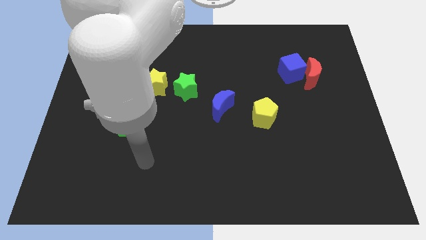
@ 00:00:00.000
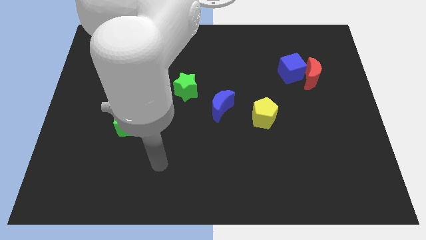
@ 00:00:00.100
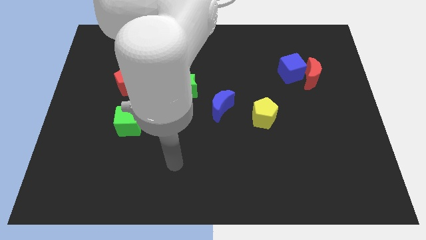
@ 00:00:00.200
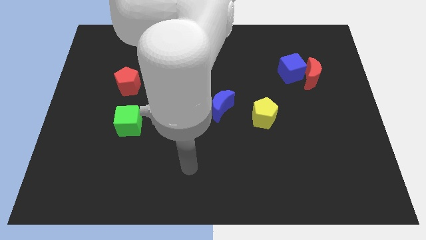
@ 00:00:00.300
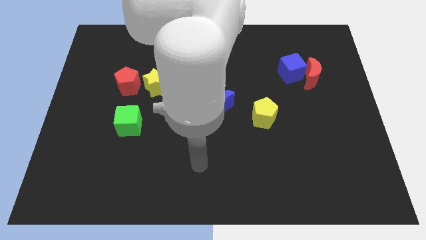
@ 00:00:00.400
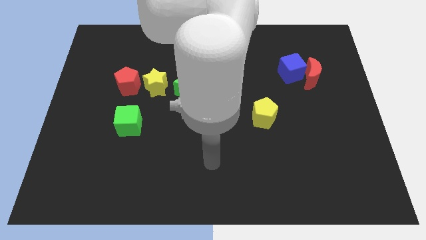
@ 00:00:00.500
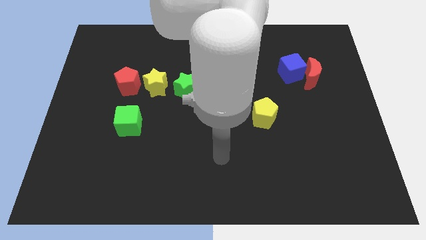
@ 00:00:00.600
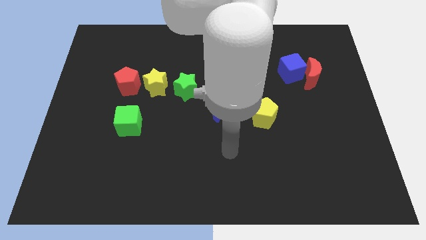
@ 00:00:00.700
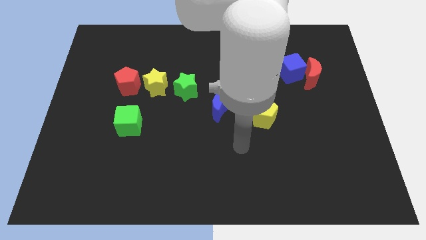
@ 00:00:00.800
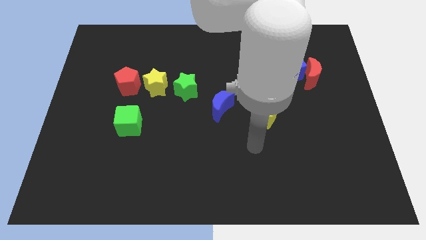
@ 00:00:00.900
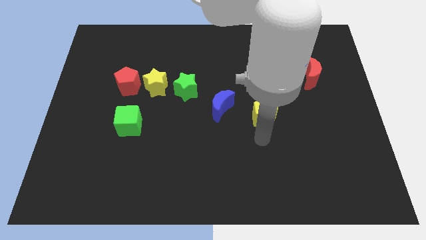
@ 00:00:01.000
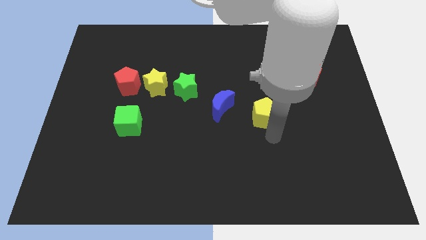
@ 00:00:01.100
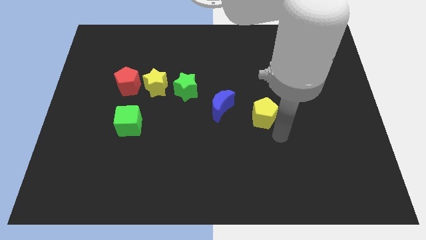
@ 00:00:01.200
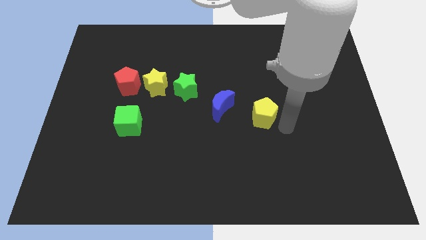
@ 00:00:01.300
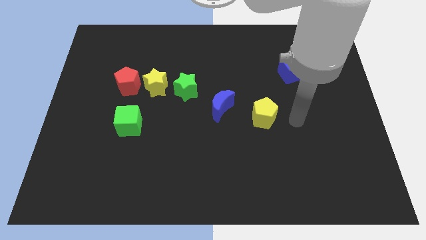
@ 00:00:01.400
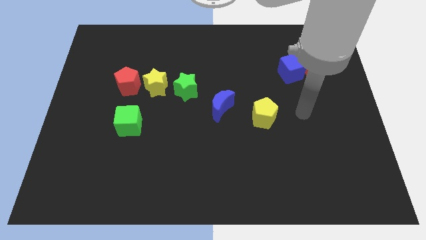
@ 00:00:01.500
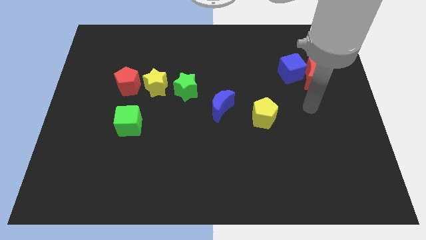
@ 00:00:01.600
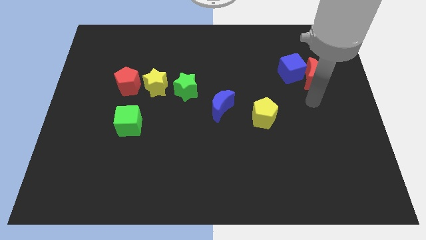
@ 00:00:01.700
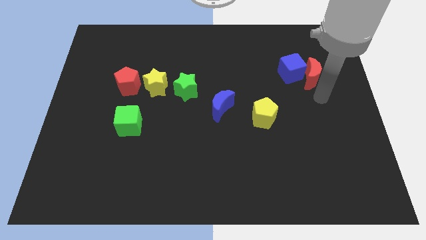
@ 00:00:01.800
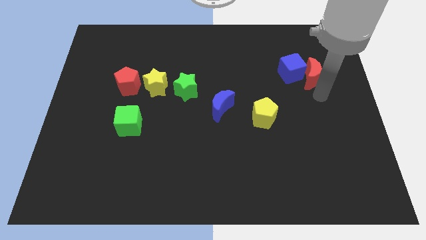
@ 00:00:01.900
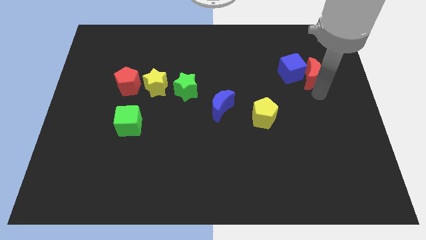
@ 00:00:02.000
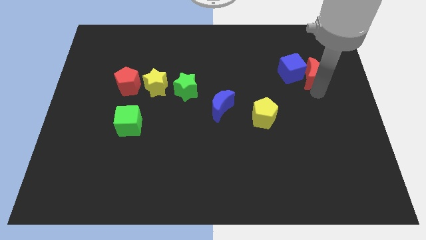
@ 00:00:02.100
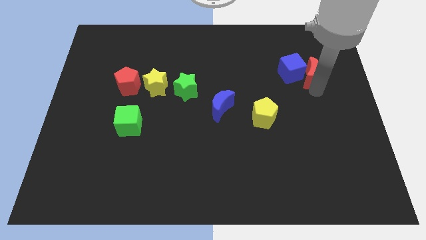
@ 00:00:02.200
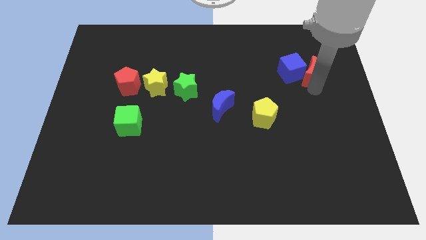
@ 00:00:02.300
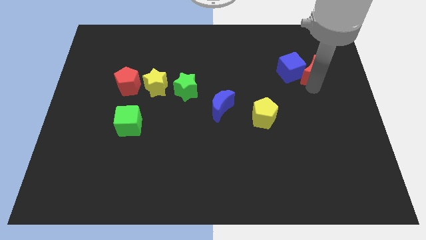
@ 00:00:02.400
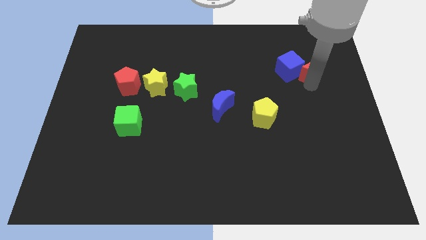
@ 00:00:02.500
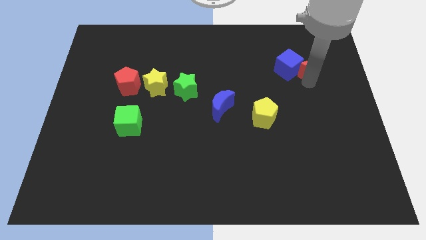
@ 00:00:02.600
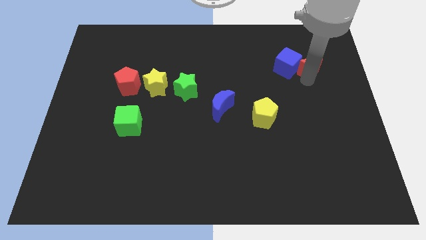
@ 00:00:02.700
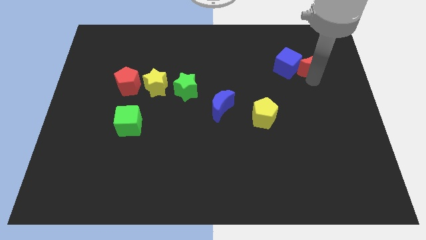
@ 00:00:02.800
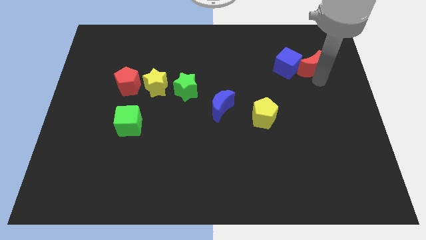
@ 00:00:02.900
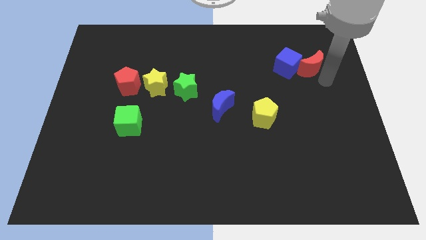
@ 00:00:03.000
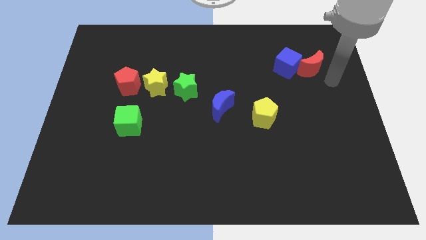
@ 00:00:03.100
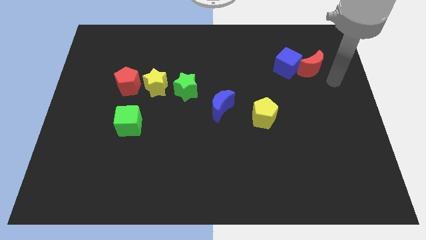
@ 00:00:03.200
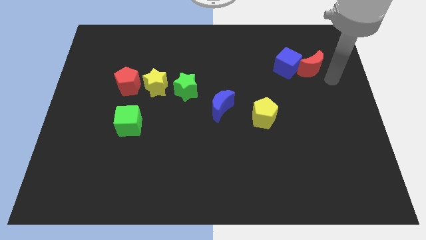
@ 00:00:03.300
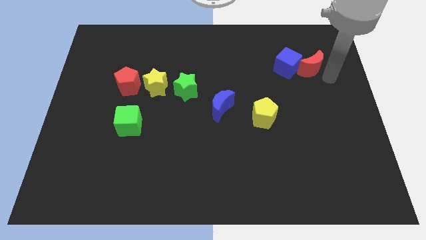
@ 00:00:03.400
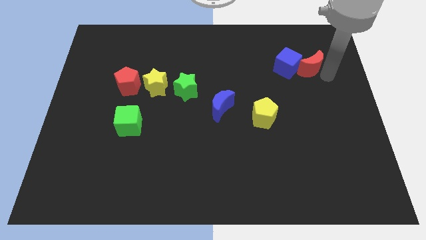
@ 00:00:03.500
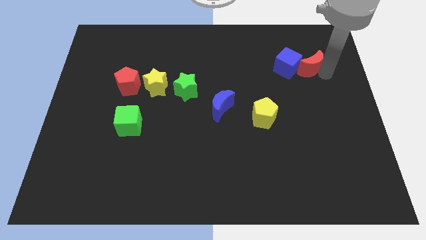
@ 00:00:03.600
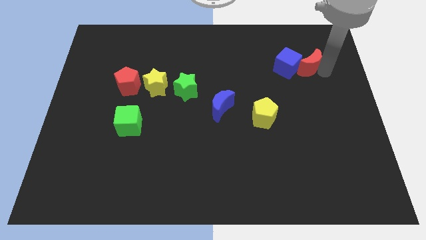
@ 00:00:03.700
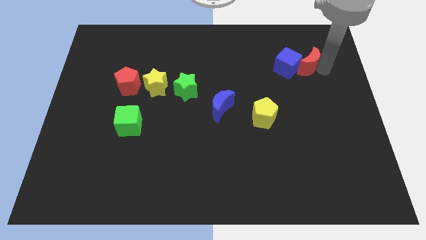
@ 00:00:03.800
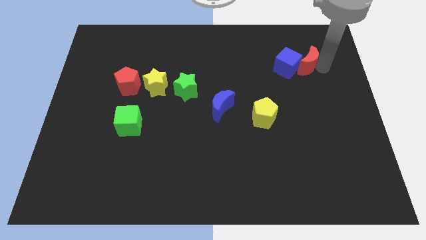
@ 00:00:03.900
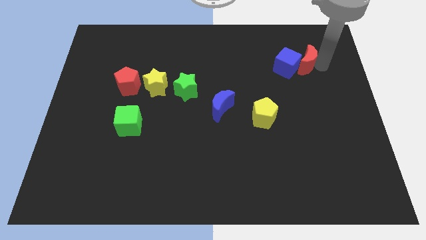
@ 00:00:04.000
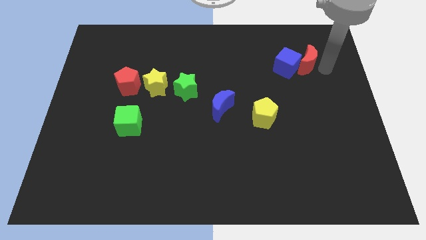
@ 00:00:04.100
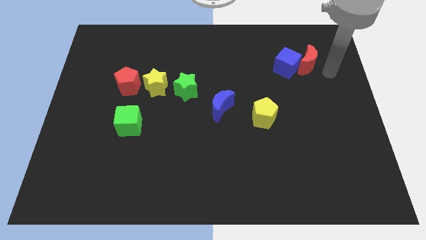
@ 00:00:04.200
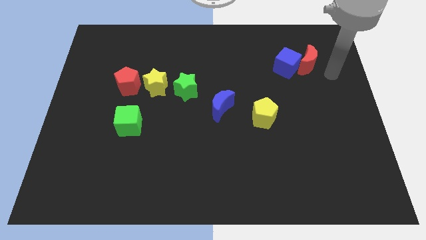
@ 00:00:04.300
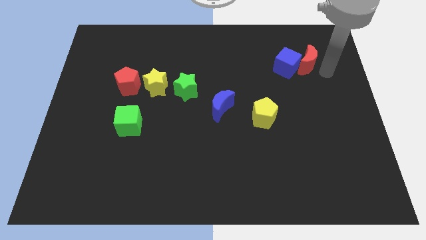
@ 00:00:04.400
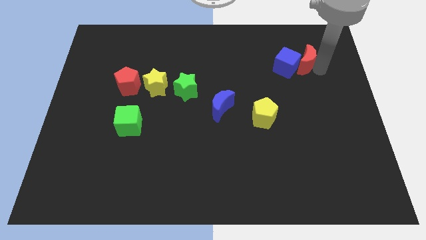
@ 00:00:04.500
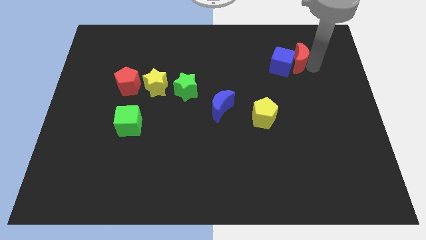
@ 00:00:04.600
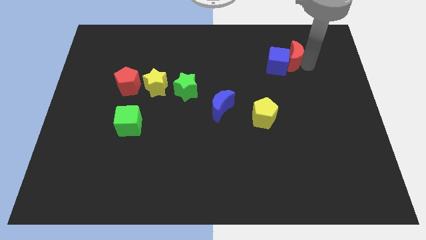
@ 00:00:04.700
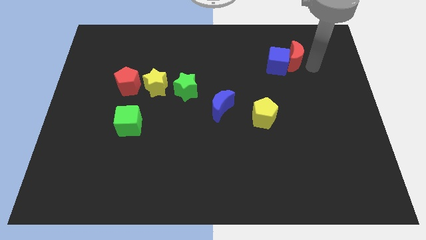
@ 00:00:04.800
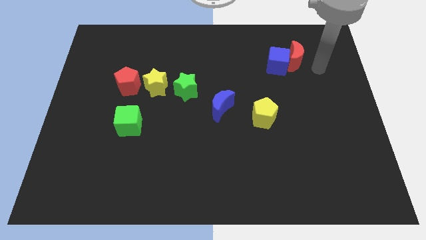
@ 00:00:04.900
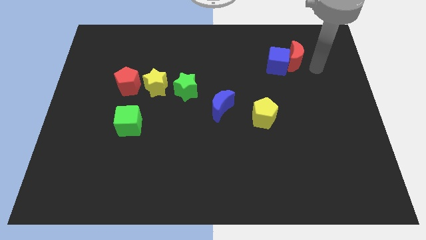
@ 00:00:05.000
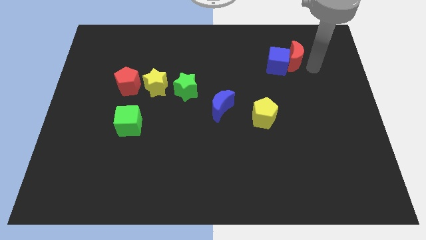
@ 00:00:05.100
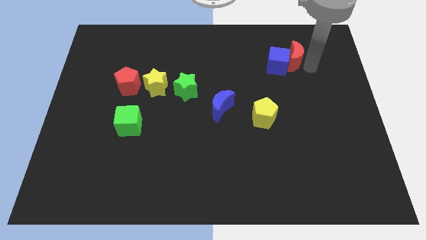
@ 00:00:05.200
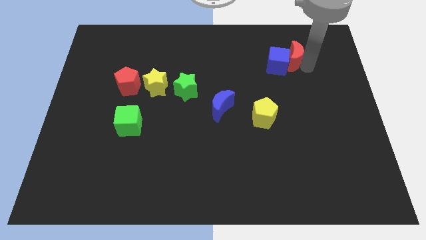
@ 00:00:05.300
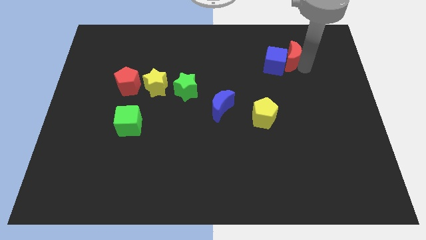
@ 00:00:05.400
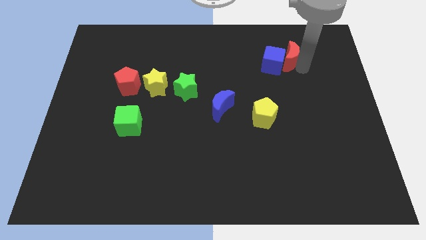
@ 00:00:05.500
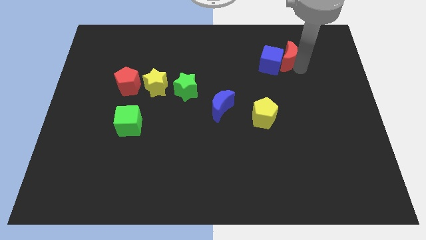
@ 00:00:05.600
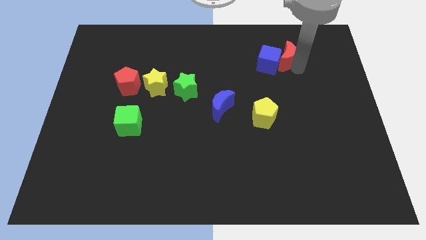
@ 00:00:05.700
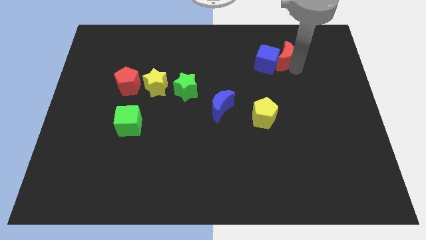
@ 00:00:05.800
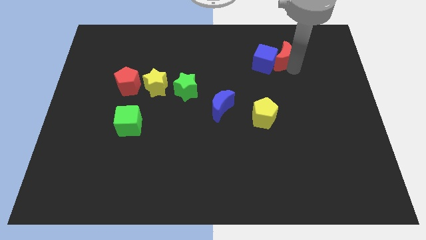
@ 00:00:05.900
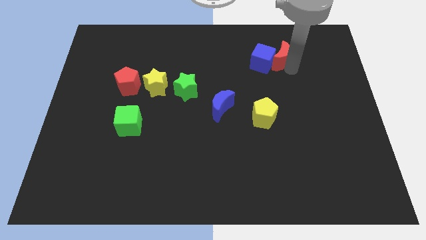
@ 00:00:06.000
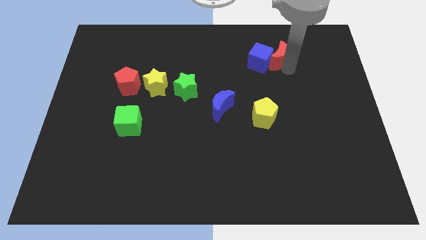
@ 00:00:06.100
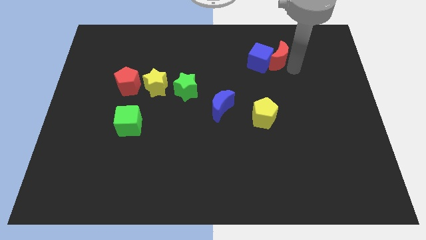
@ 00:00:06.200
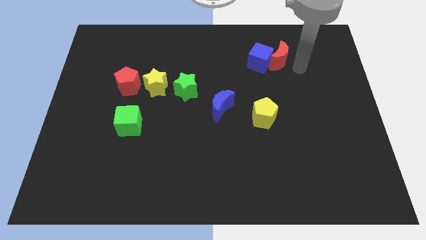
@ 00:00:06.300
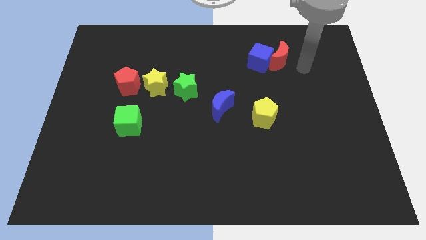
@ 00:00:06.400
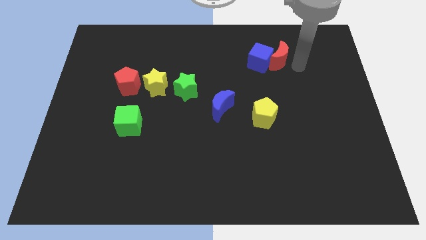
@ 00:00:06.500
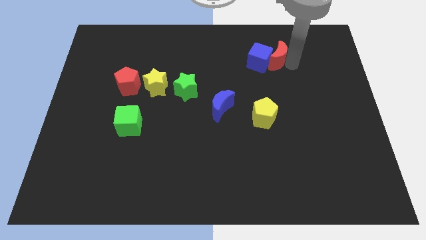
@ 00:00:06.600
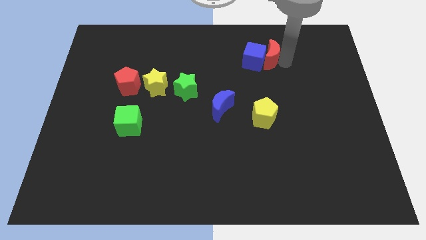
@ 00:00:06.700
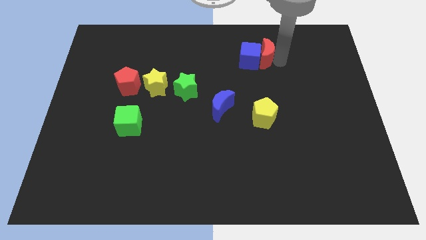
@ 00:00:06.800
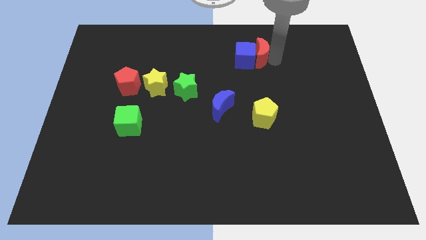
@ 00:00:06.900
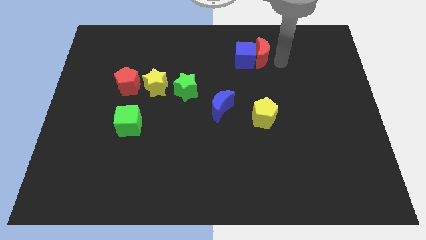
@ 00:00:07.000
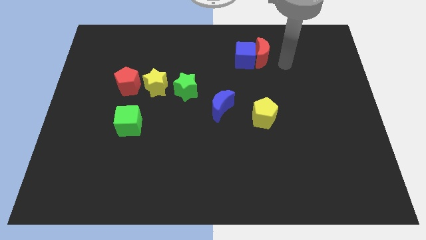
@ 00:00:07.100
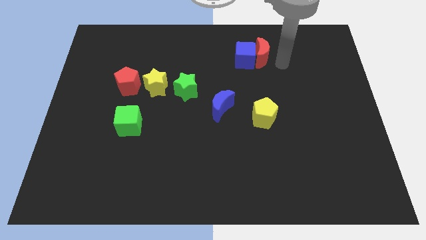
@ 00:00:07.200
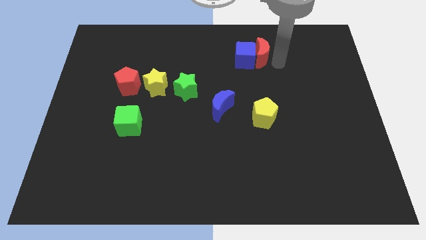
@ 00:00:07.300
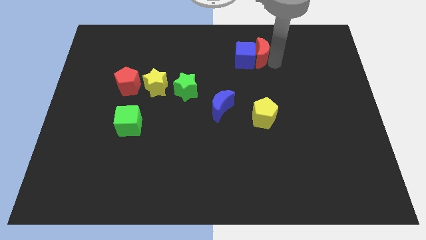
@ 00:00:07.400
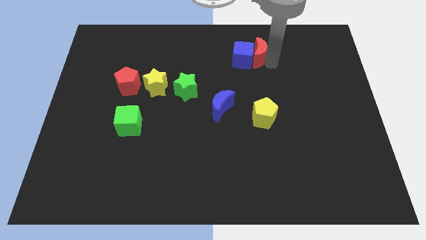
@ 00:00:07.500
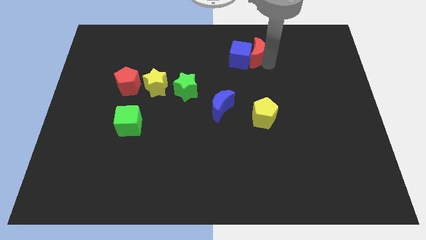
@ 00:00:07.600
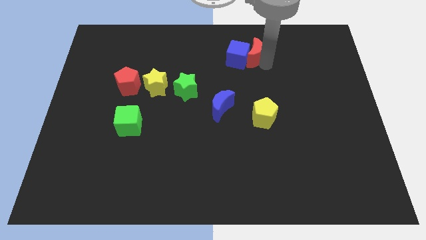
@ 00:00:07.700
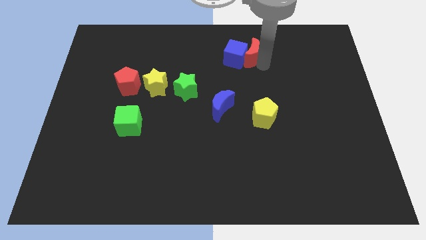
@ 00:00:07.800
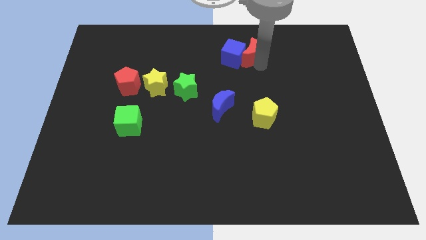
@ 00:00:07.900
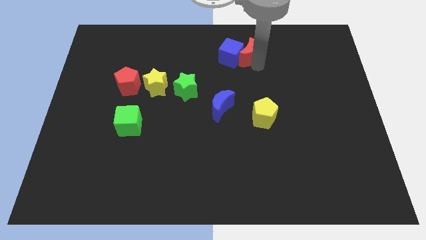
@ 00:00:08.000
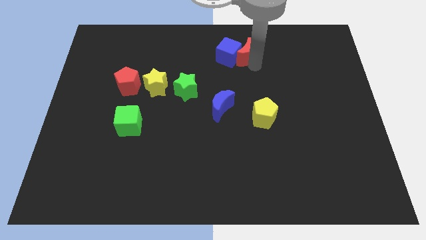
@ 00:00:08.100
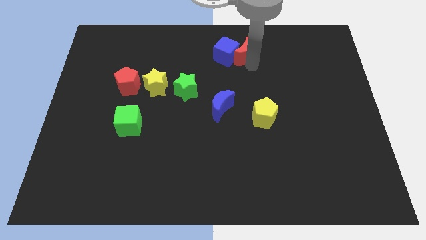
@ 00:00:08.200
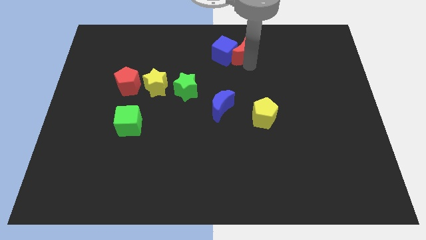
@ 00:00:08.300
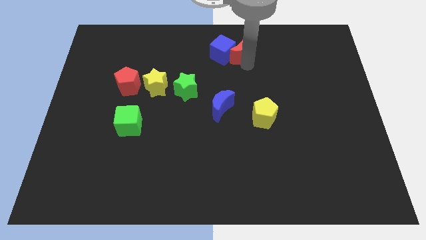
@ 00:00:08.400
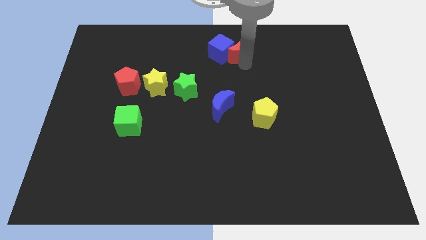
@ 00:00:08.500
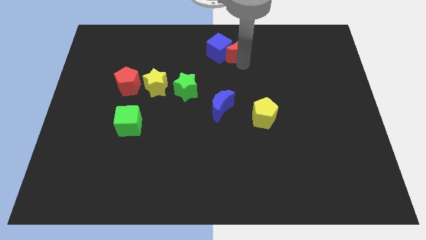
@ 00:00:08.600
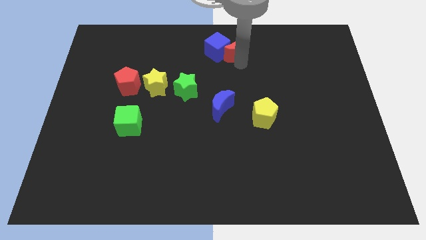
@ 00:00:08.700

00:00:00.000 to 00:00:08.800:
slide the red moon to the top side
